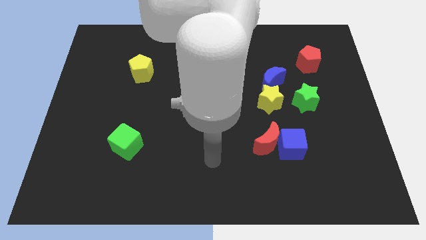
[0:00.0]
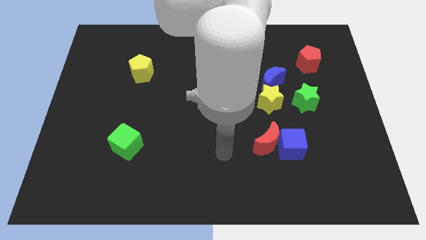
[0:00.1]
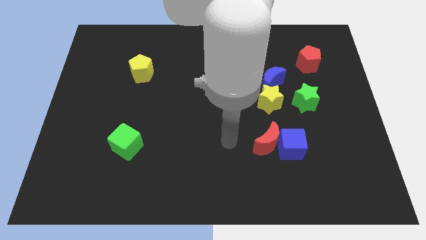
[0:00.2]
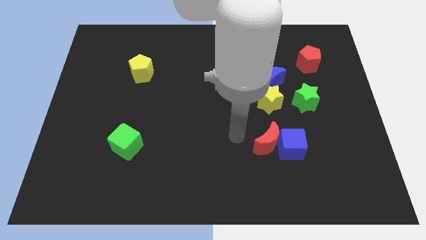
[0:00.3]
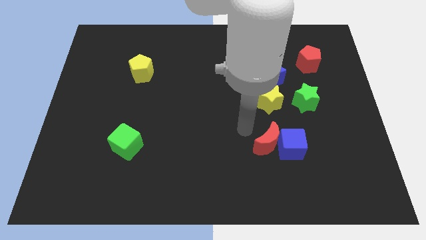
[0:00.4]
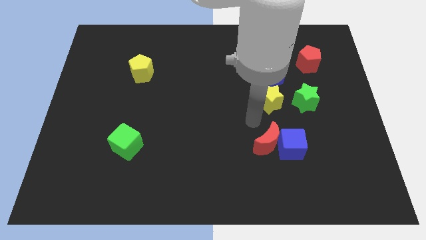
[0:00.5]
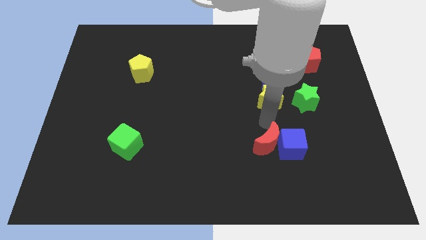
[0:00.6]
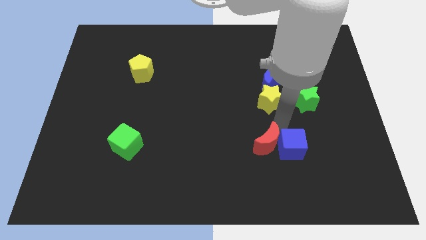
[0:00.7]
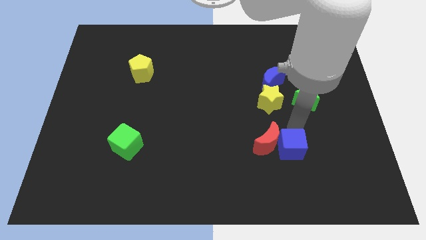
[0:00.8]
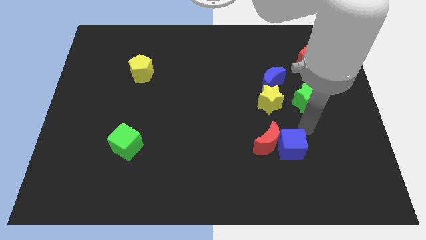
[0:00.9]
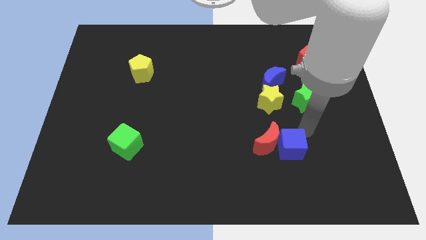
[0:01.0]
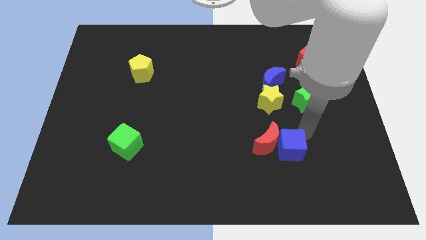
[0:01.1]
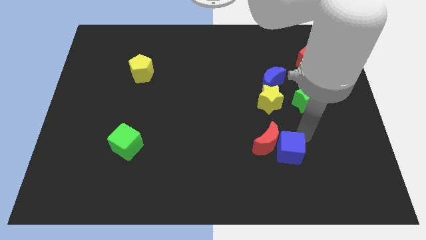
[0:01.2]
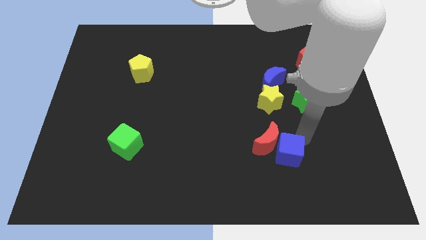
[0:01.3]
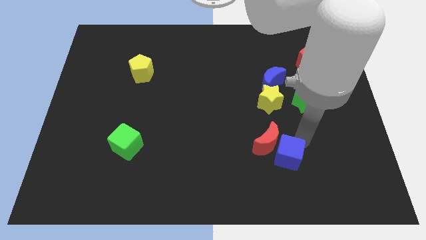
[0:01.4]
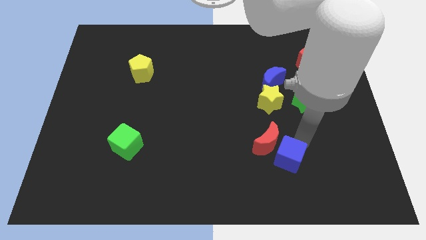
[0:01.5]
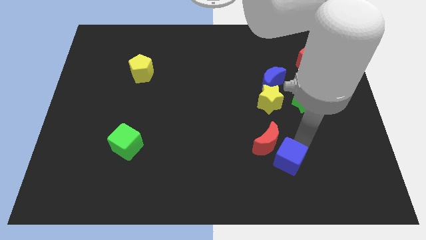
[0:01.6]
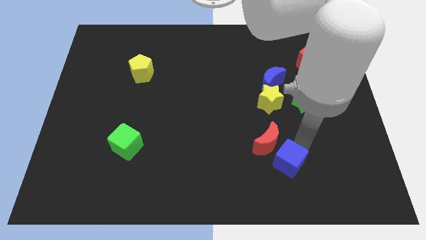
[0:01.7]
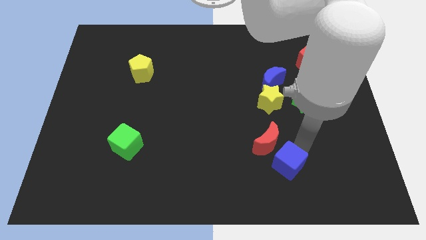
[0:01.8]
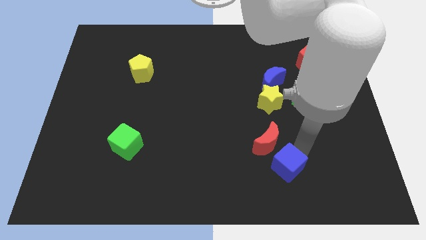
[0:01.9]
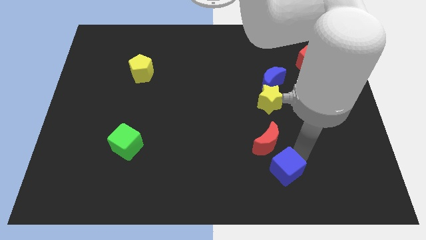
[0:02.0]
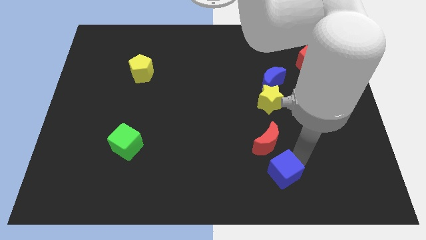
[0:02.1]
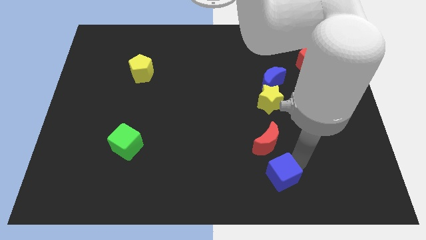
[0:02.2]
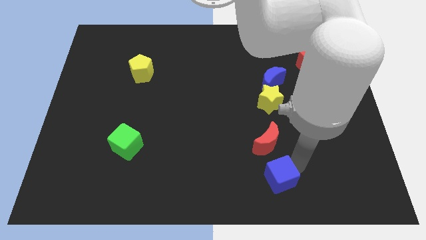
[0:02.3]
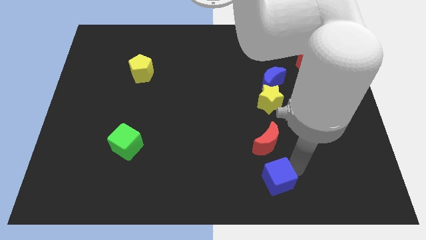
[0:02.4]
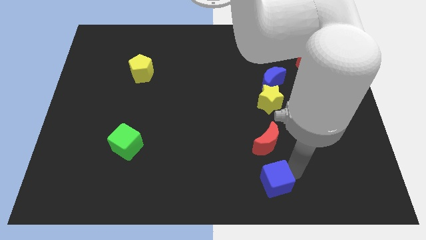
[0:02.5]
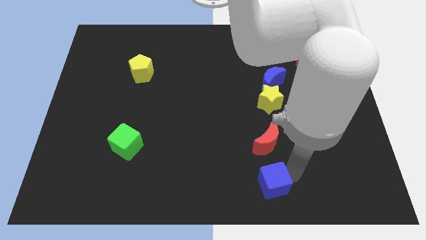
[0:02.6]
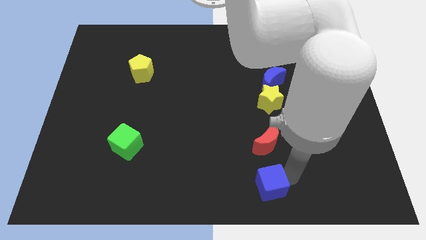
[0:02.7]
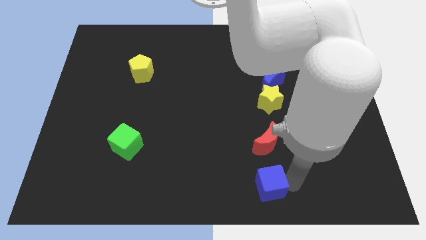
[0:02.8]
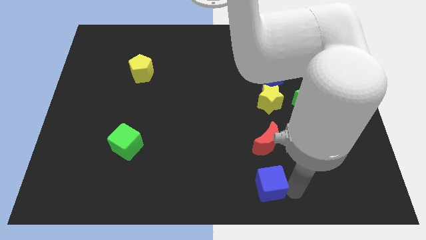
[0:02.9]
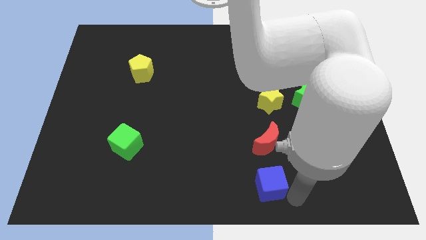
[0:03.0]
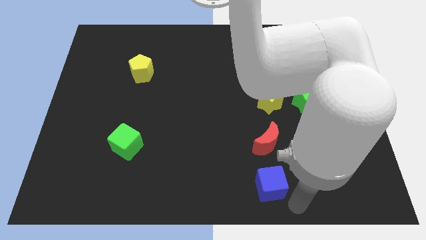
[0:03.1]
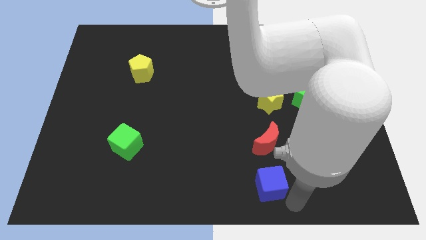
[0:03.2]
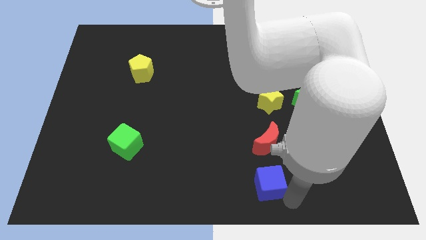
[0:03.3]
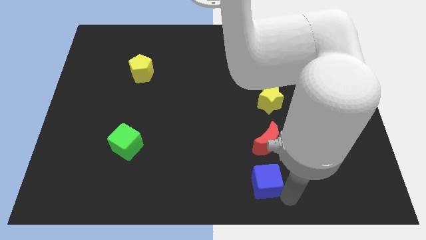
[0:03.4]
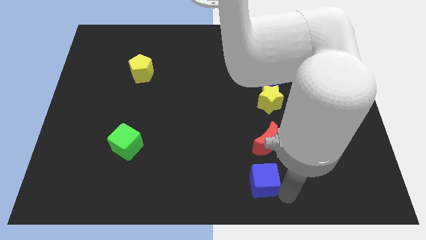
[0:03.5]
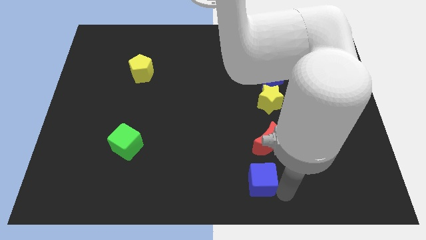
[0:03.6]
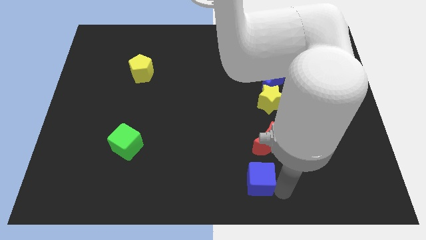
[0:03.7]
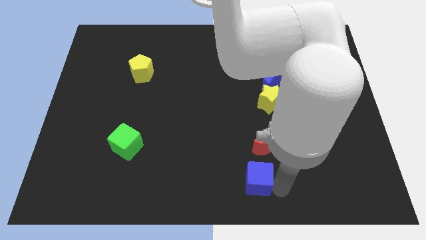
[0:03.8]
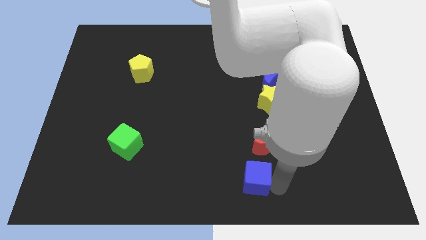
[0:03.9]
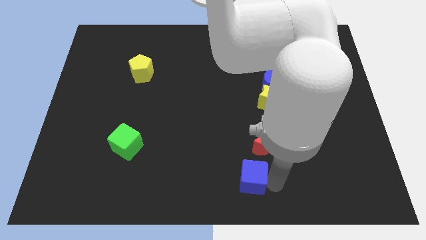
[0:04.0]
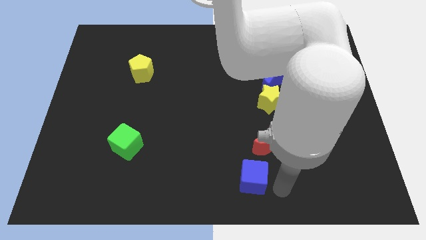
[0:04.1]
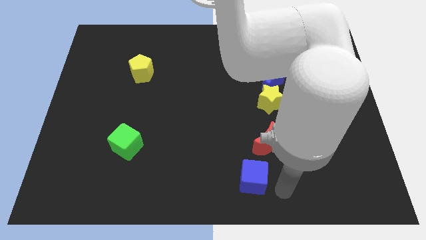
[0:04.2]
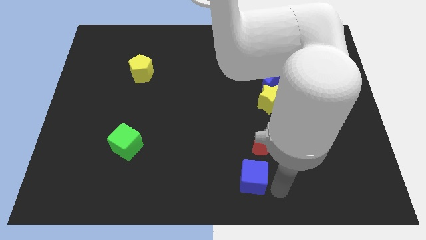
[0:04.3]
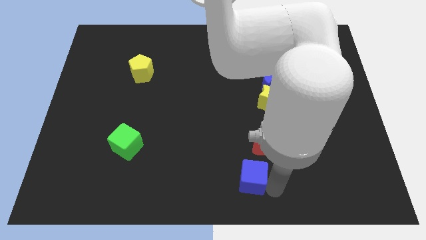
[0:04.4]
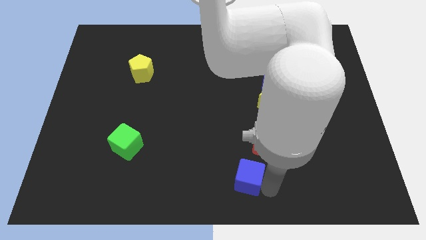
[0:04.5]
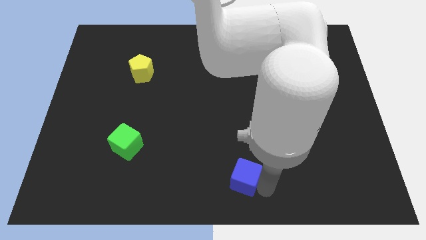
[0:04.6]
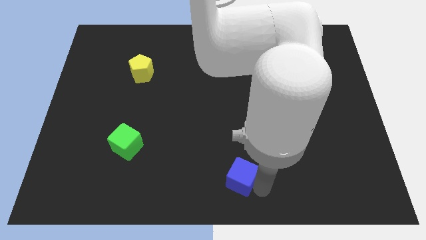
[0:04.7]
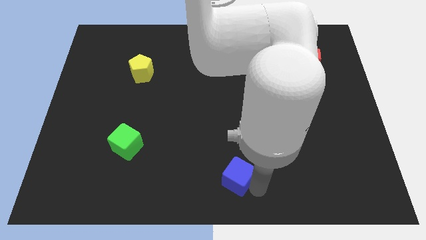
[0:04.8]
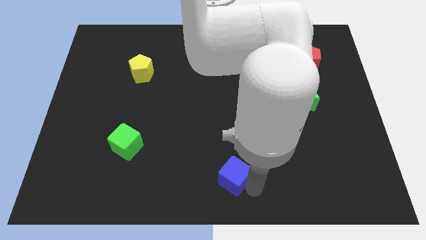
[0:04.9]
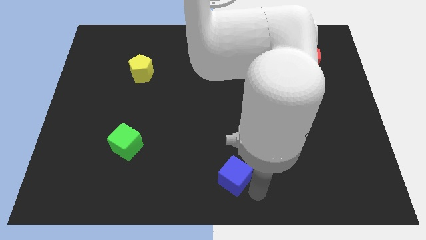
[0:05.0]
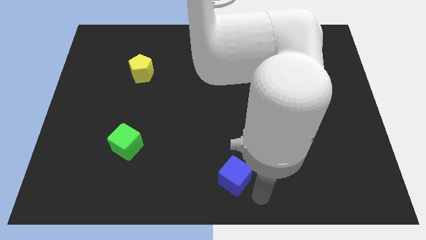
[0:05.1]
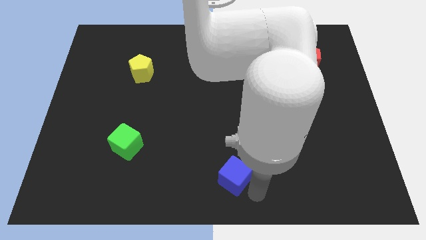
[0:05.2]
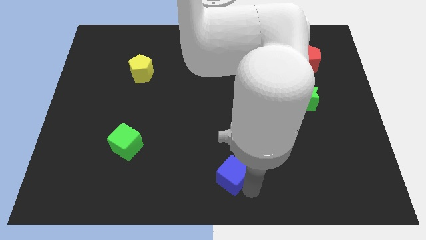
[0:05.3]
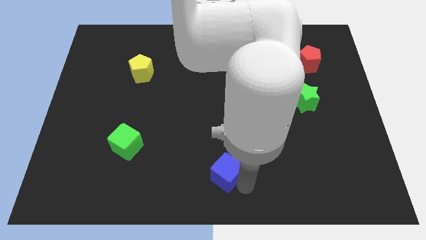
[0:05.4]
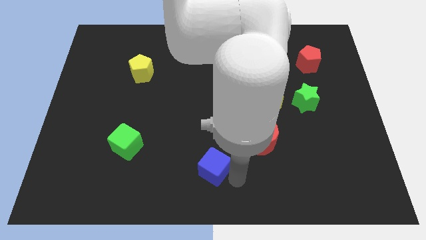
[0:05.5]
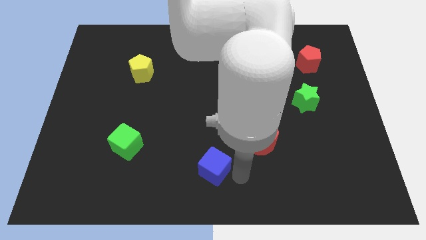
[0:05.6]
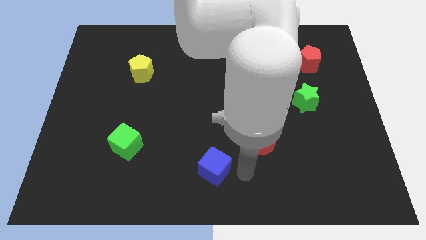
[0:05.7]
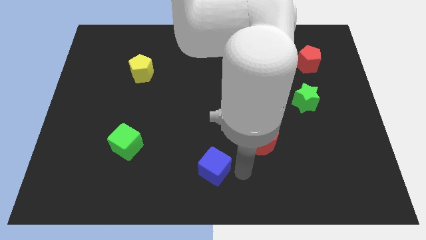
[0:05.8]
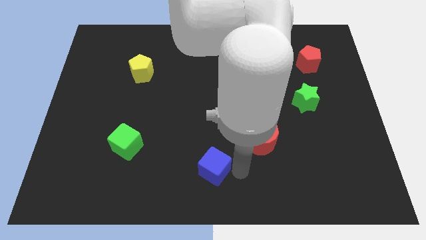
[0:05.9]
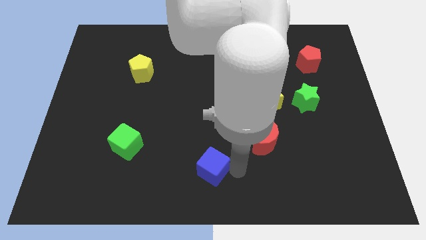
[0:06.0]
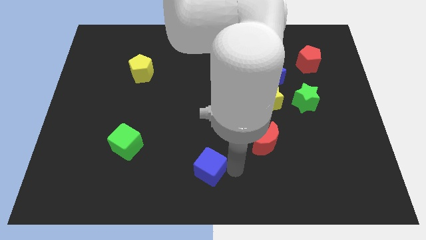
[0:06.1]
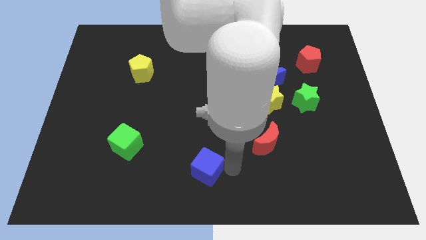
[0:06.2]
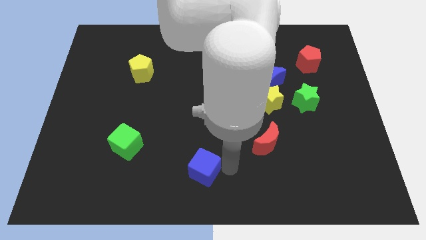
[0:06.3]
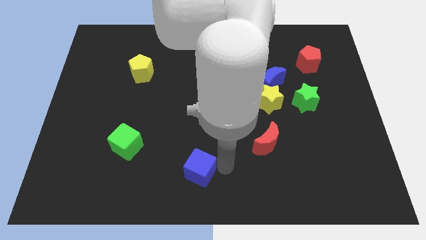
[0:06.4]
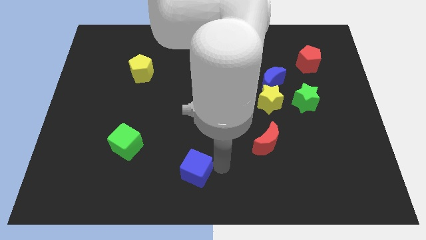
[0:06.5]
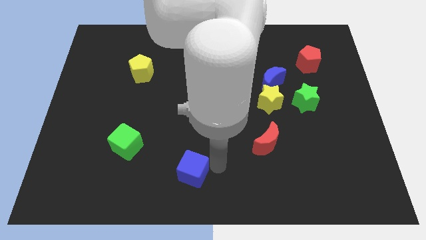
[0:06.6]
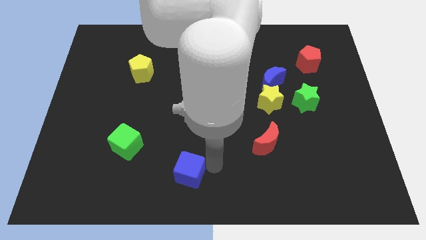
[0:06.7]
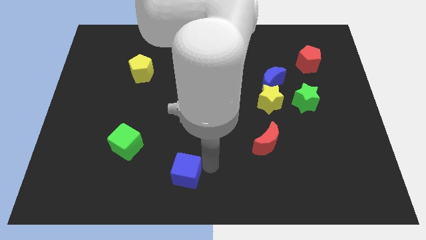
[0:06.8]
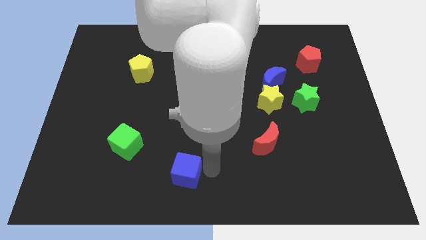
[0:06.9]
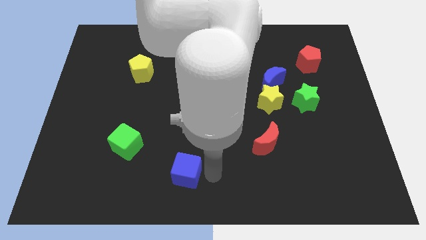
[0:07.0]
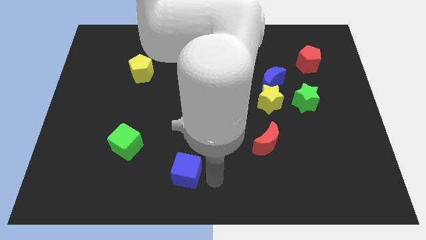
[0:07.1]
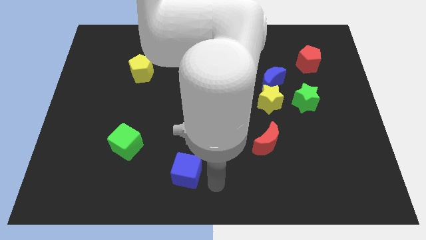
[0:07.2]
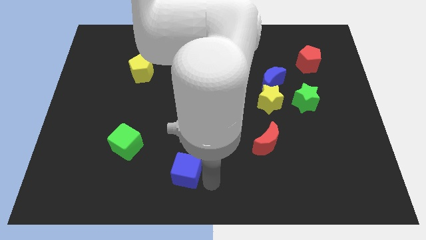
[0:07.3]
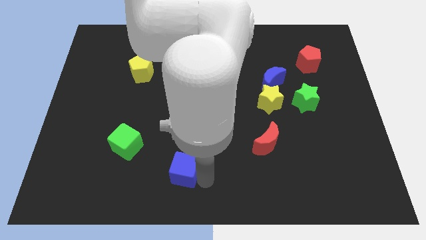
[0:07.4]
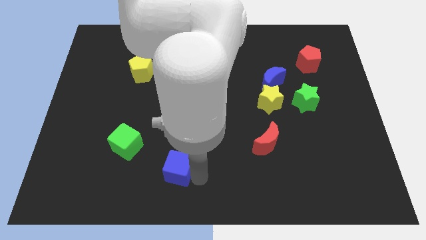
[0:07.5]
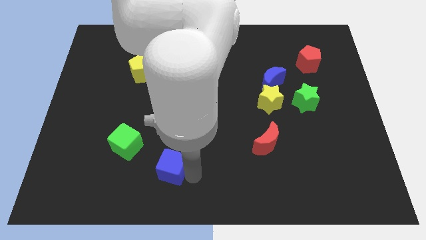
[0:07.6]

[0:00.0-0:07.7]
move the blue cube to the bottom right side of the green cube

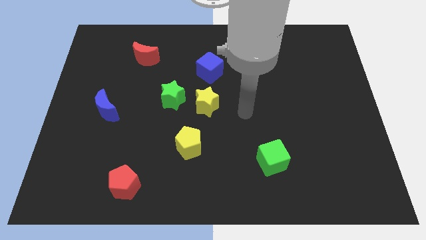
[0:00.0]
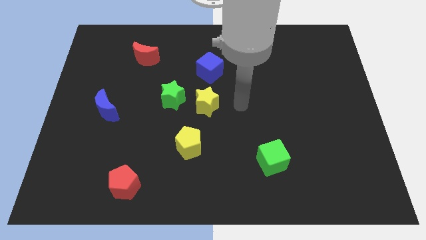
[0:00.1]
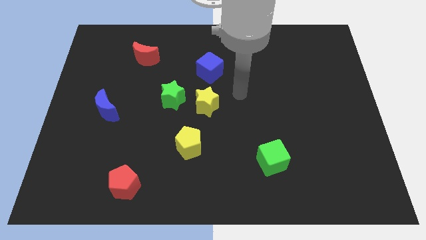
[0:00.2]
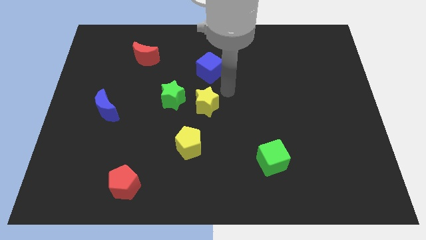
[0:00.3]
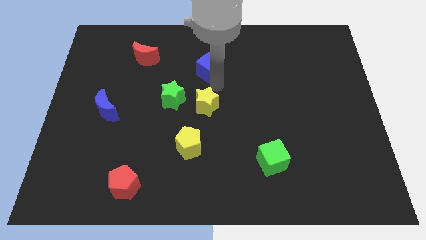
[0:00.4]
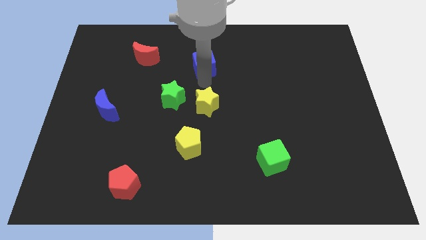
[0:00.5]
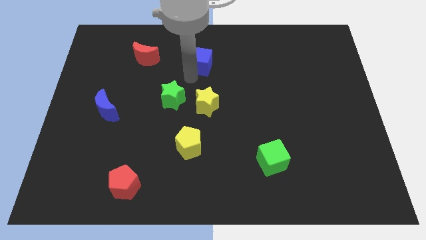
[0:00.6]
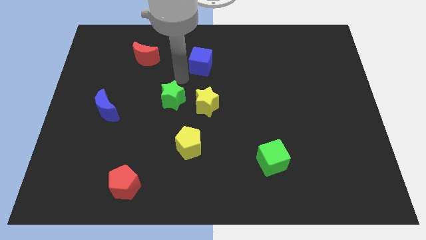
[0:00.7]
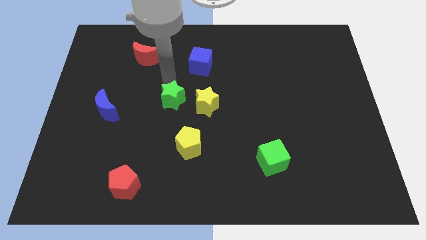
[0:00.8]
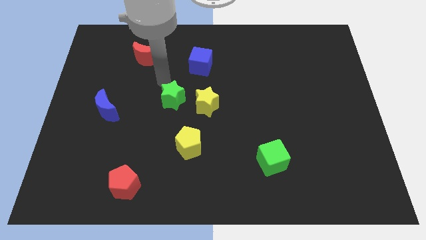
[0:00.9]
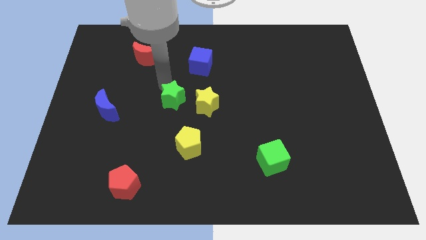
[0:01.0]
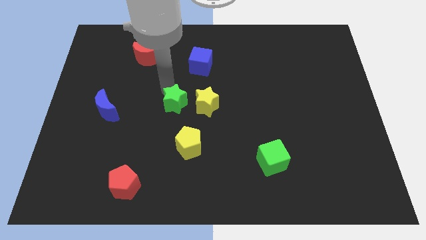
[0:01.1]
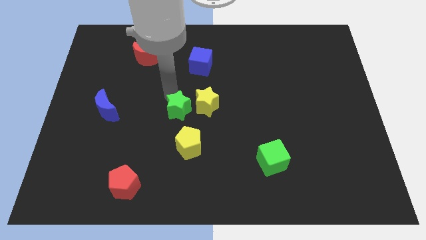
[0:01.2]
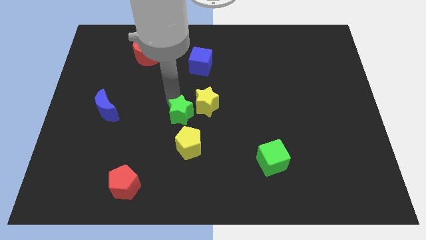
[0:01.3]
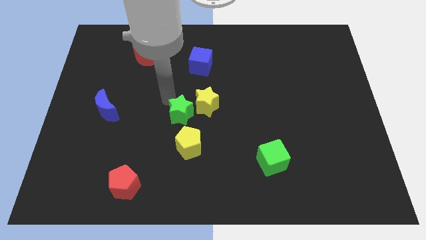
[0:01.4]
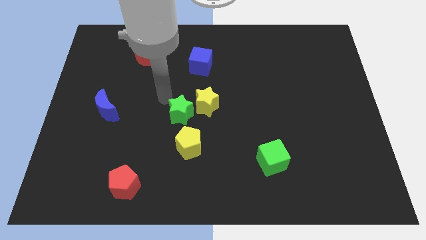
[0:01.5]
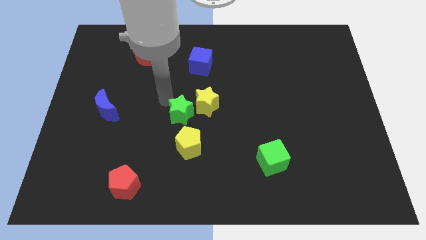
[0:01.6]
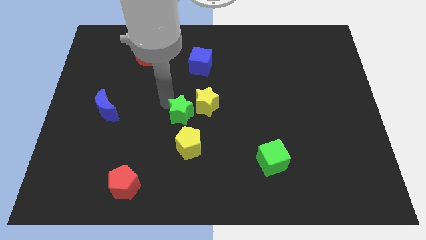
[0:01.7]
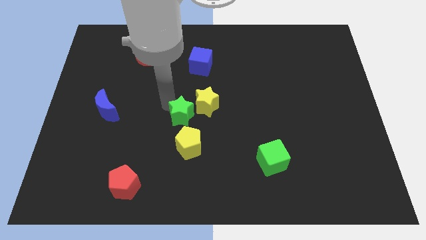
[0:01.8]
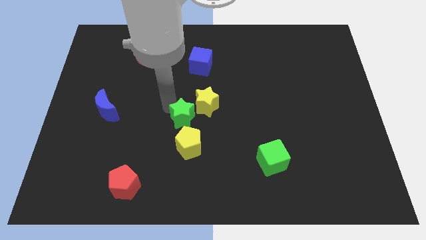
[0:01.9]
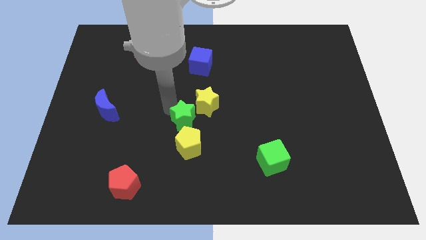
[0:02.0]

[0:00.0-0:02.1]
push the green star to the bottom side of the yellow star
